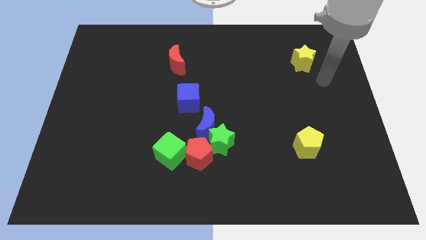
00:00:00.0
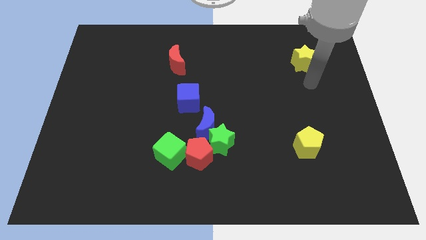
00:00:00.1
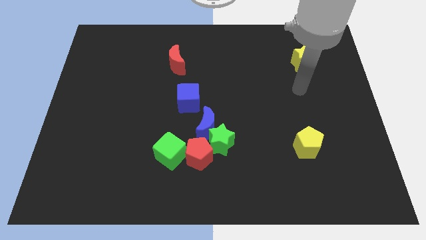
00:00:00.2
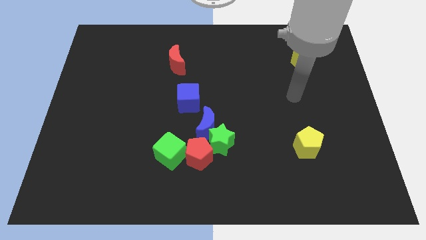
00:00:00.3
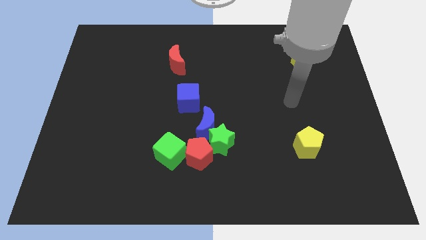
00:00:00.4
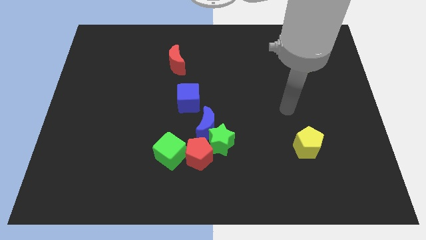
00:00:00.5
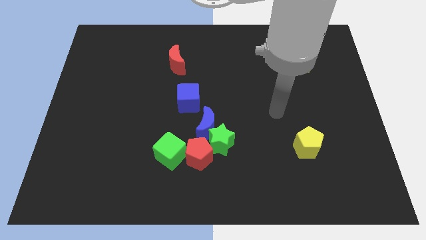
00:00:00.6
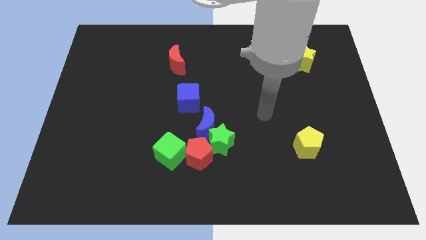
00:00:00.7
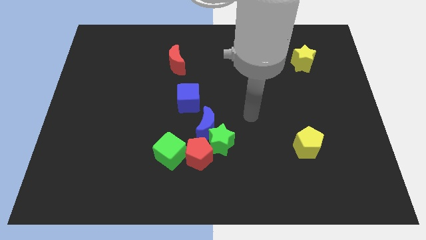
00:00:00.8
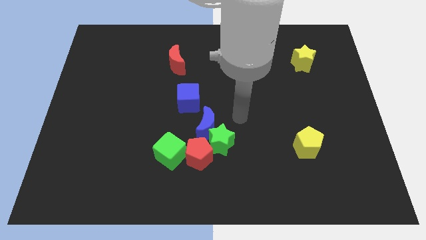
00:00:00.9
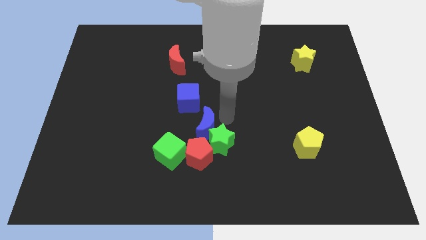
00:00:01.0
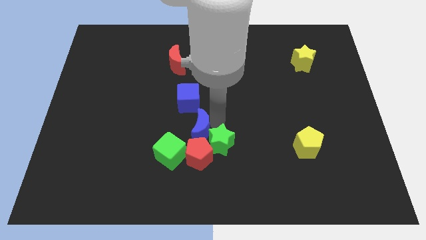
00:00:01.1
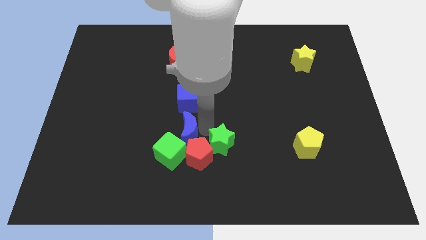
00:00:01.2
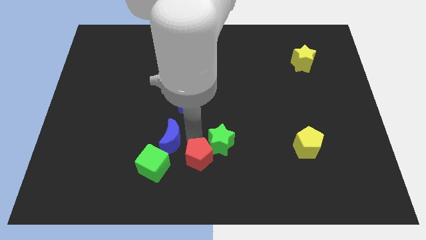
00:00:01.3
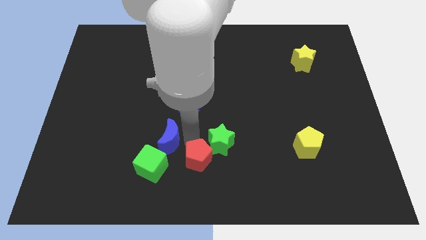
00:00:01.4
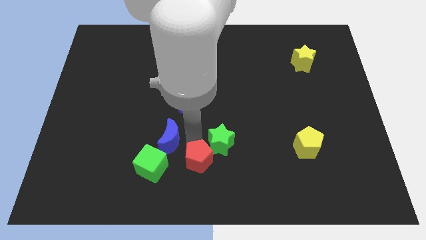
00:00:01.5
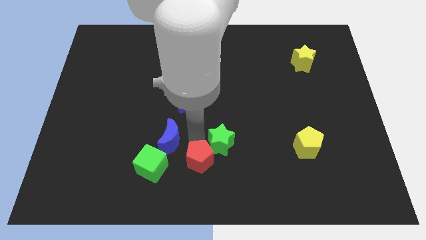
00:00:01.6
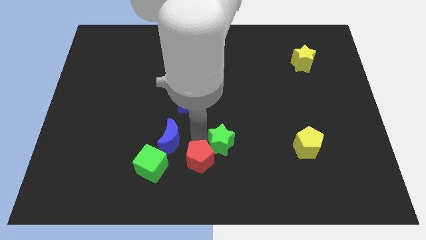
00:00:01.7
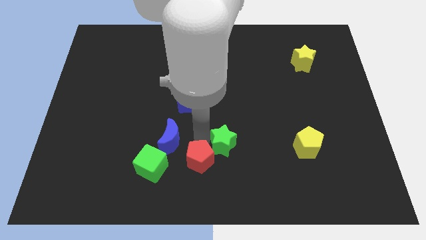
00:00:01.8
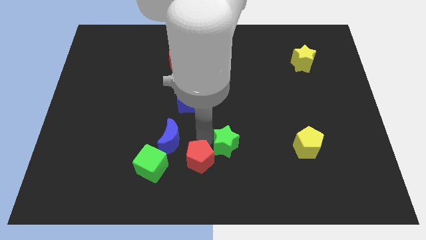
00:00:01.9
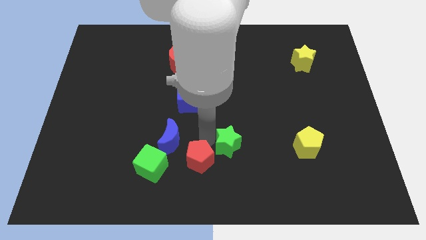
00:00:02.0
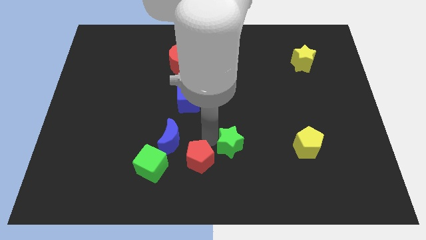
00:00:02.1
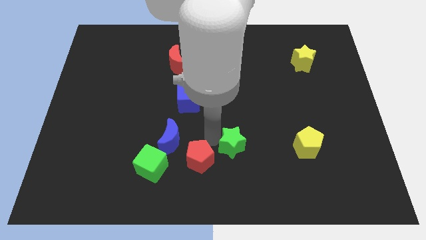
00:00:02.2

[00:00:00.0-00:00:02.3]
move the green star away from the blue moon and red pentagon

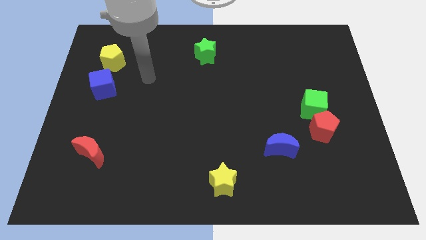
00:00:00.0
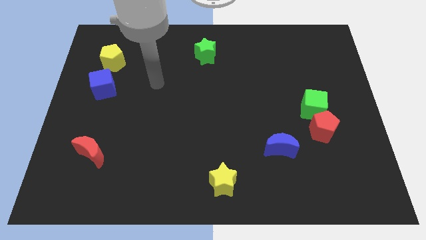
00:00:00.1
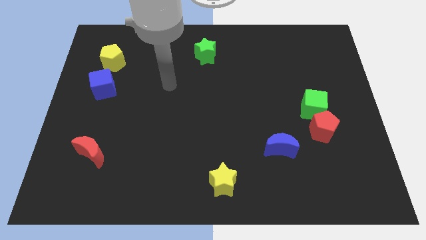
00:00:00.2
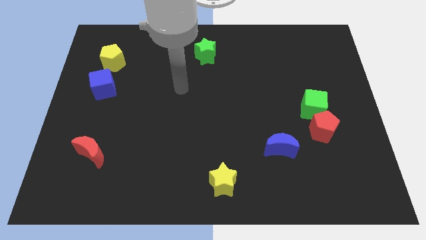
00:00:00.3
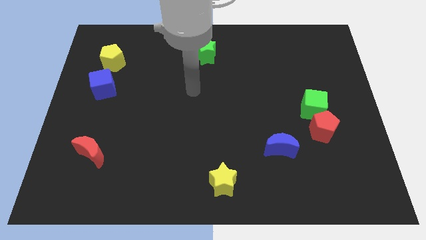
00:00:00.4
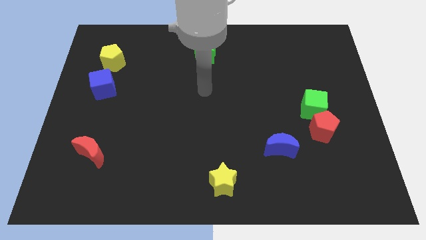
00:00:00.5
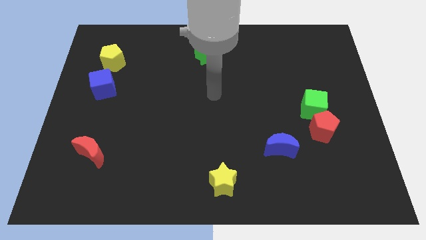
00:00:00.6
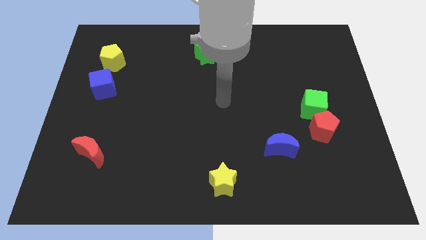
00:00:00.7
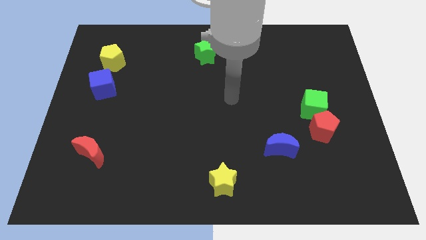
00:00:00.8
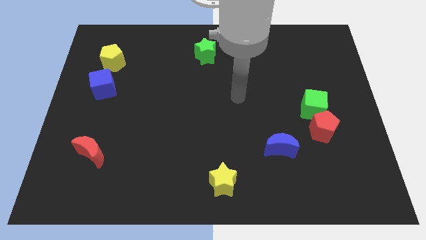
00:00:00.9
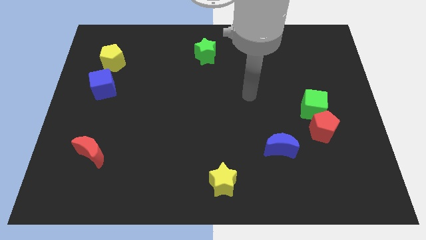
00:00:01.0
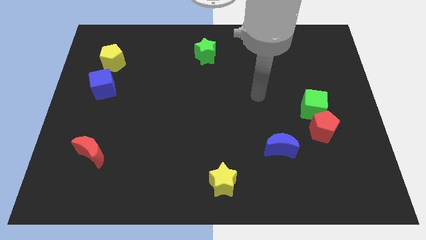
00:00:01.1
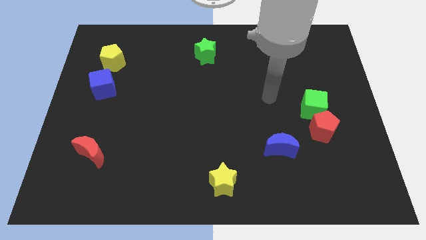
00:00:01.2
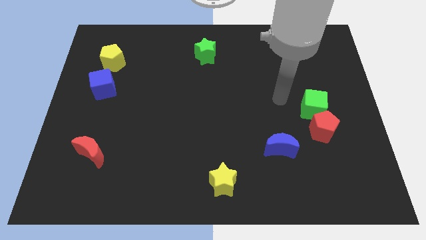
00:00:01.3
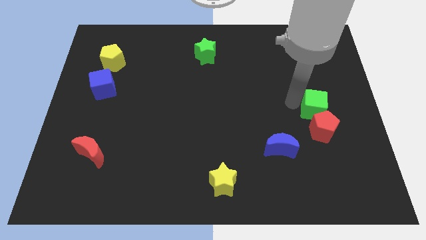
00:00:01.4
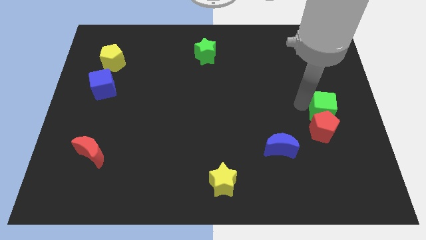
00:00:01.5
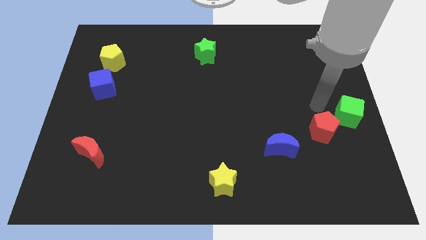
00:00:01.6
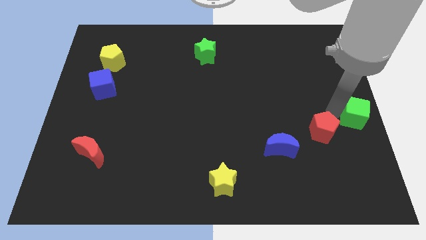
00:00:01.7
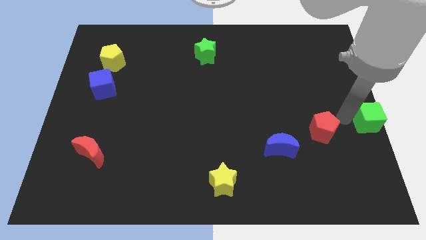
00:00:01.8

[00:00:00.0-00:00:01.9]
pull the red pentagon apart from the green cube

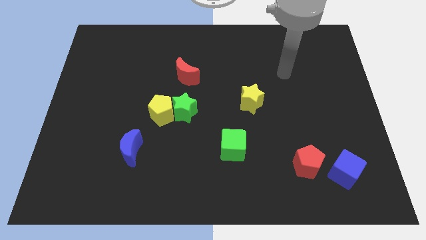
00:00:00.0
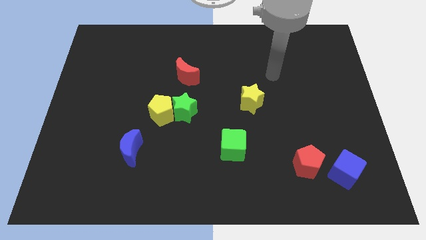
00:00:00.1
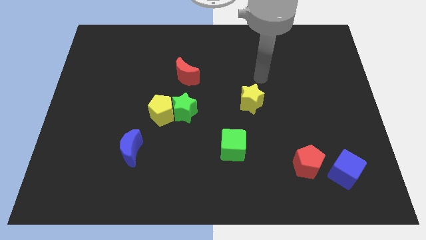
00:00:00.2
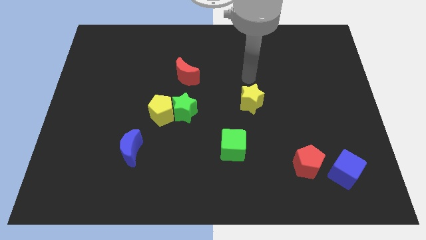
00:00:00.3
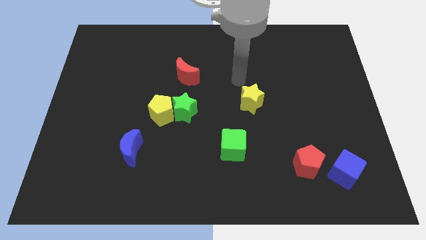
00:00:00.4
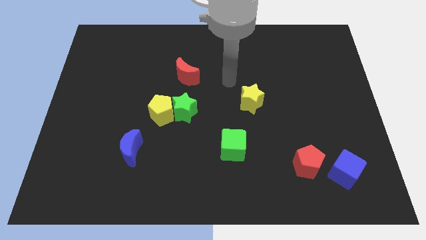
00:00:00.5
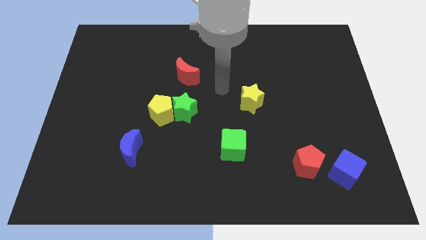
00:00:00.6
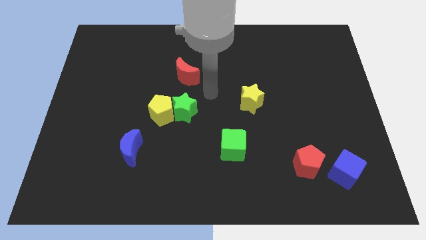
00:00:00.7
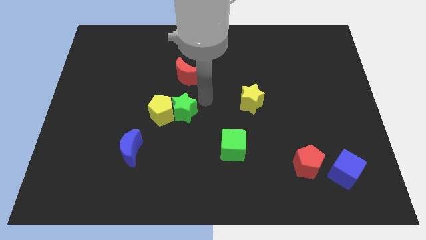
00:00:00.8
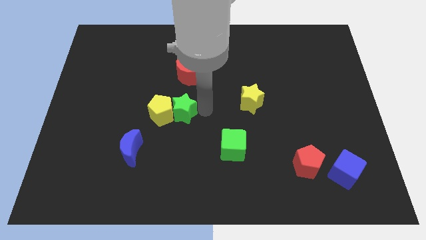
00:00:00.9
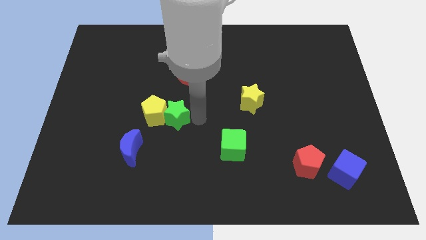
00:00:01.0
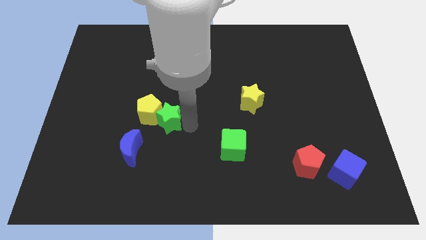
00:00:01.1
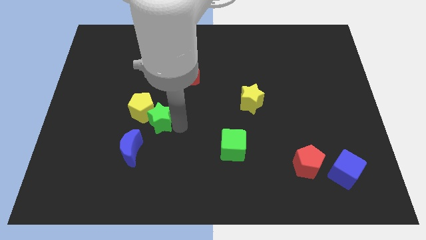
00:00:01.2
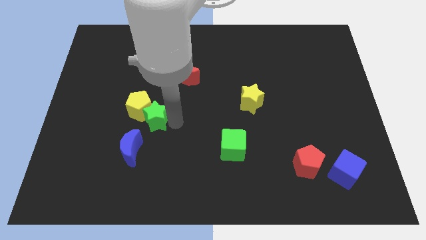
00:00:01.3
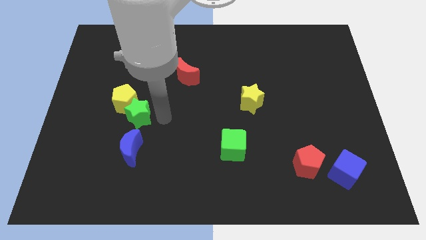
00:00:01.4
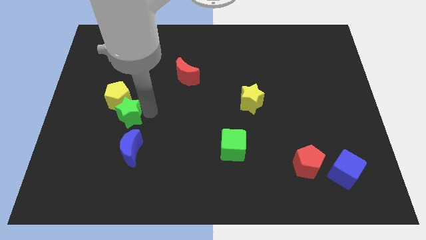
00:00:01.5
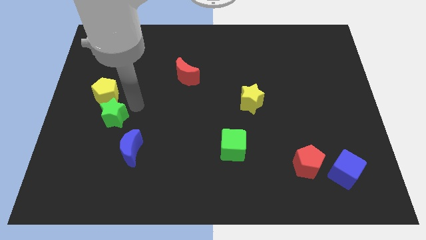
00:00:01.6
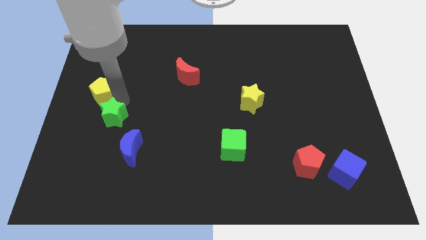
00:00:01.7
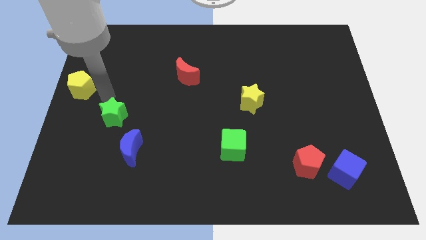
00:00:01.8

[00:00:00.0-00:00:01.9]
separate the green star from the yellow pentagon

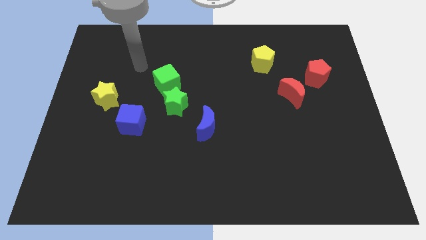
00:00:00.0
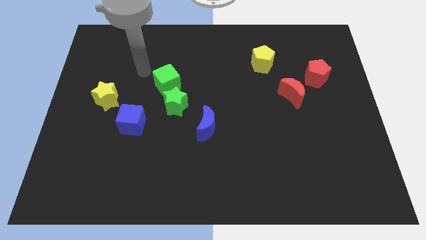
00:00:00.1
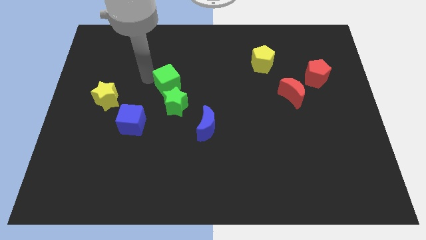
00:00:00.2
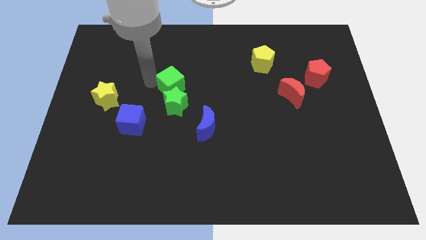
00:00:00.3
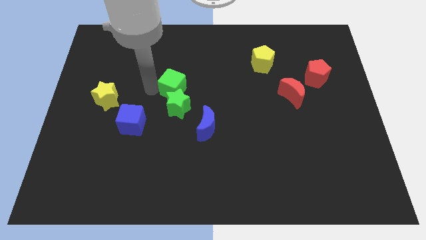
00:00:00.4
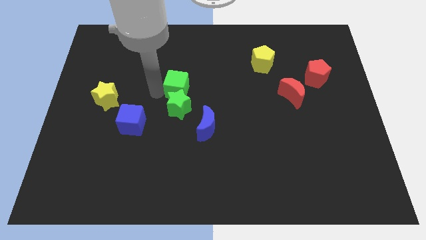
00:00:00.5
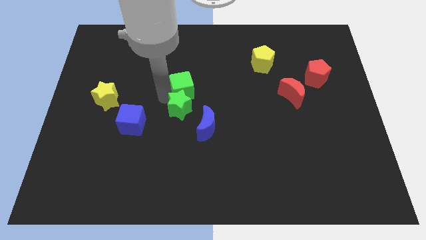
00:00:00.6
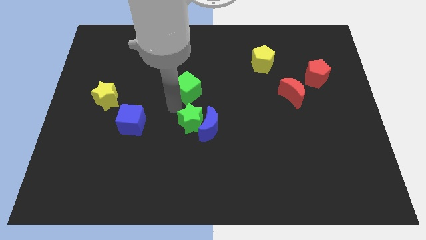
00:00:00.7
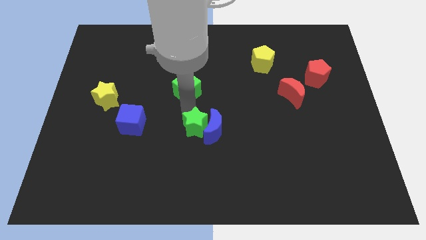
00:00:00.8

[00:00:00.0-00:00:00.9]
pull the green cube apart from the green star

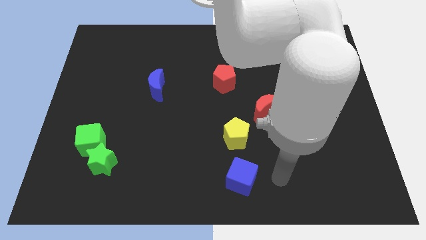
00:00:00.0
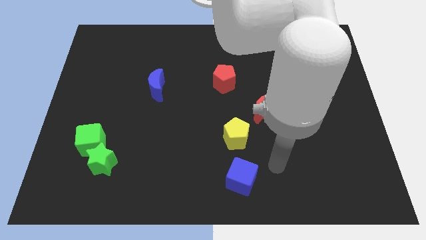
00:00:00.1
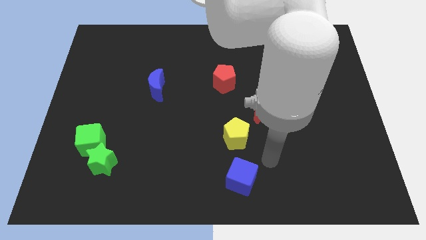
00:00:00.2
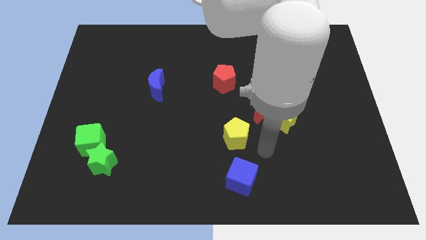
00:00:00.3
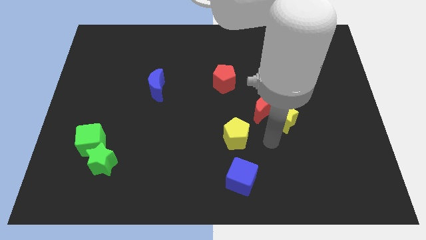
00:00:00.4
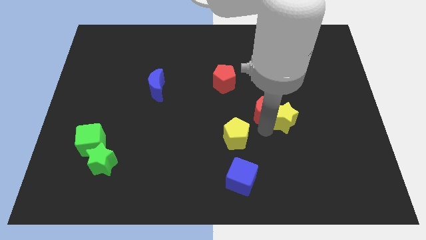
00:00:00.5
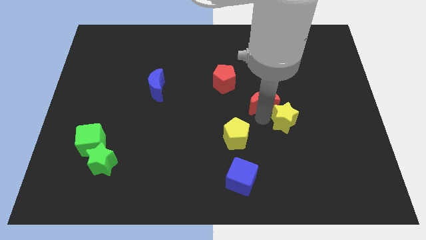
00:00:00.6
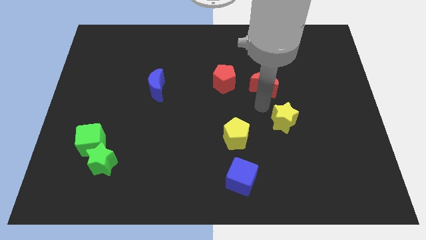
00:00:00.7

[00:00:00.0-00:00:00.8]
move the yellow star away from the red moon

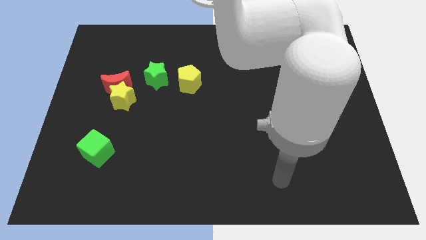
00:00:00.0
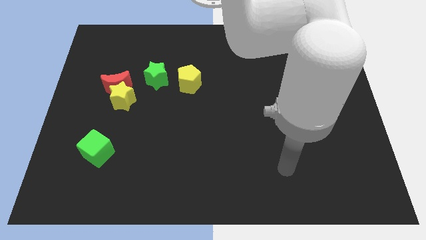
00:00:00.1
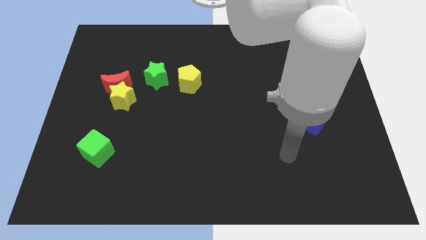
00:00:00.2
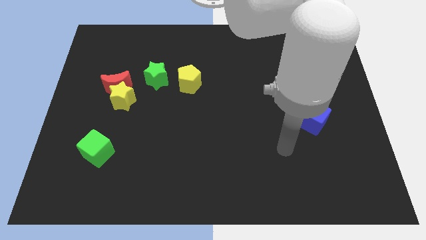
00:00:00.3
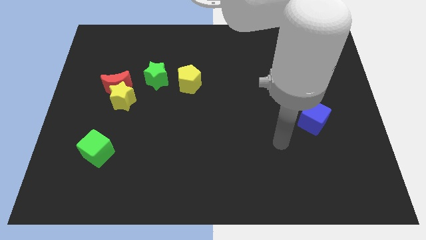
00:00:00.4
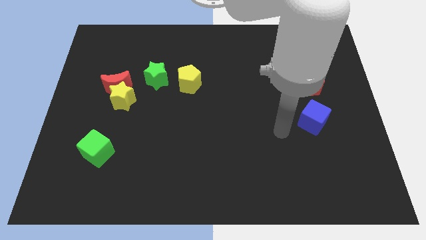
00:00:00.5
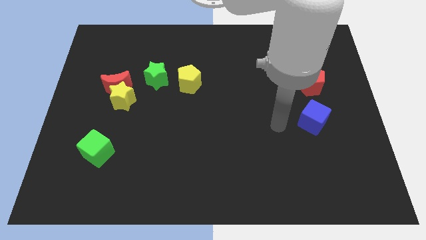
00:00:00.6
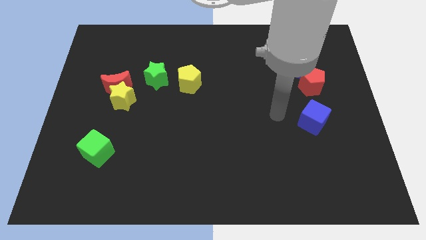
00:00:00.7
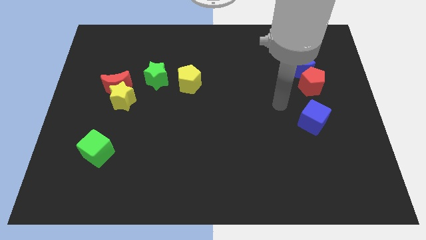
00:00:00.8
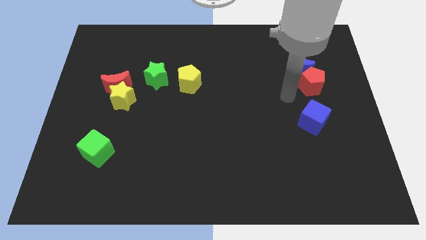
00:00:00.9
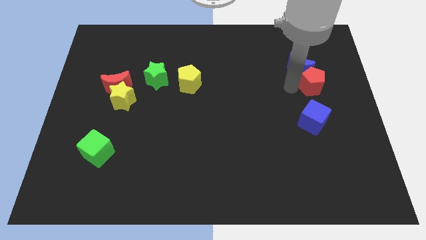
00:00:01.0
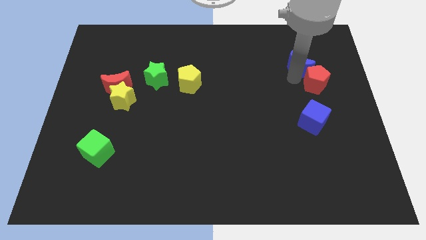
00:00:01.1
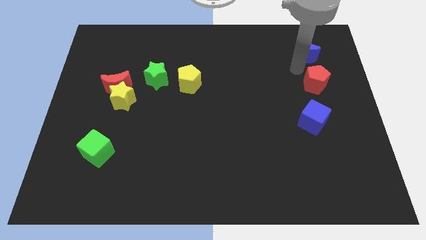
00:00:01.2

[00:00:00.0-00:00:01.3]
separate the red pentagon from the blue moon
